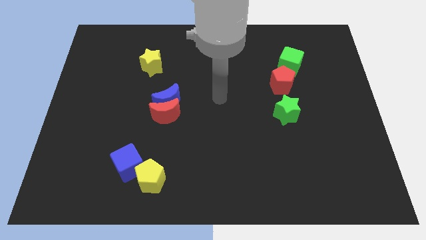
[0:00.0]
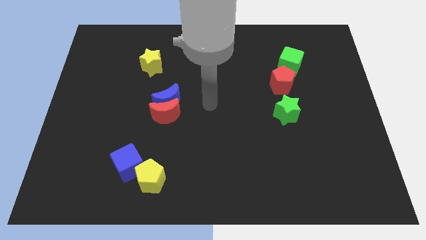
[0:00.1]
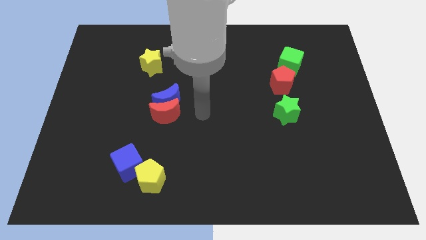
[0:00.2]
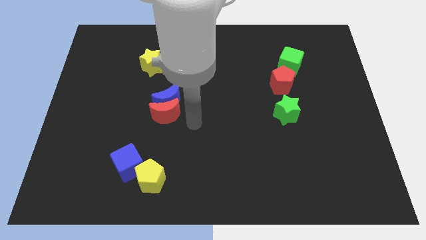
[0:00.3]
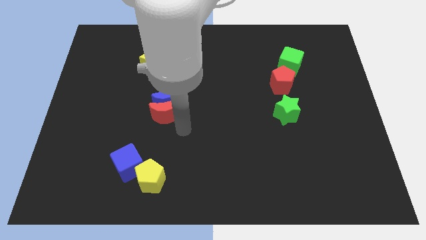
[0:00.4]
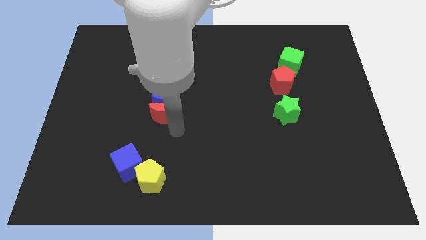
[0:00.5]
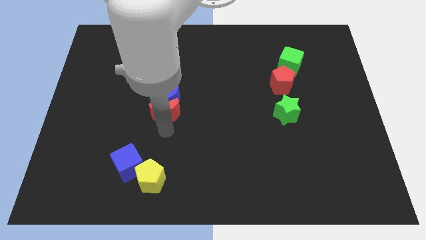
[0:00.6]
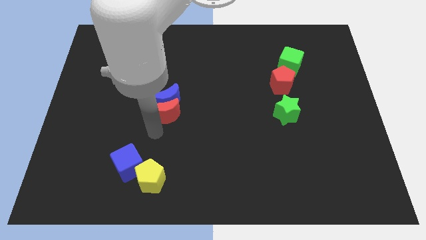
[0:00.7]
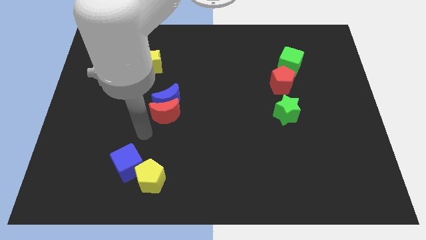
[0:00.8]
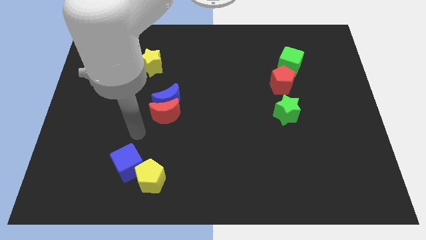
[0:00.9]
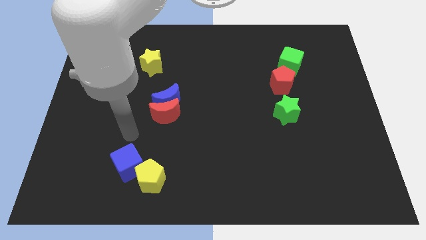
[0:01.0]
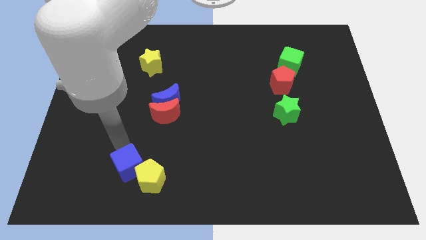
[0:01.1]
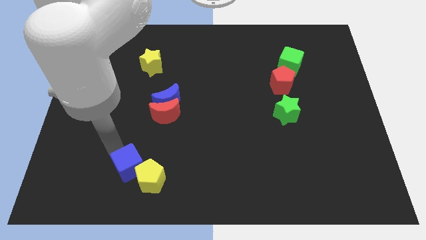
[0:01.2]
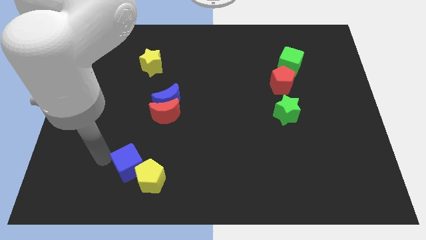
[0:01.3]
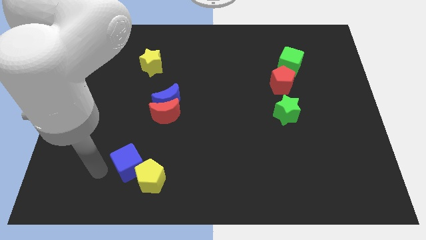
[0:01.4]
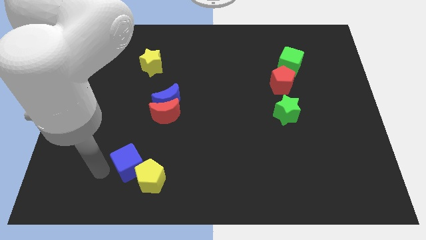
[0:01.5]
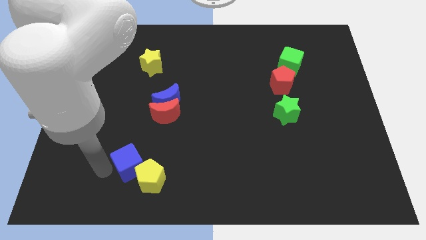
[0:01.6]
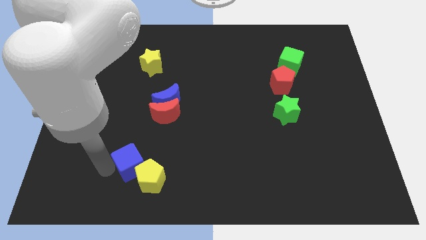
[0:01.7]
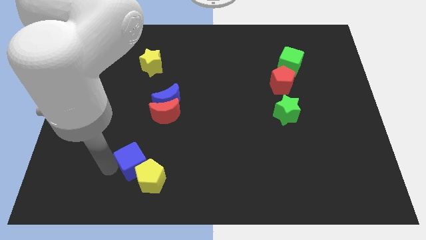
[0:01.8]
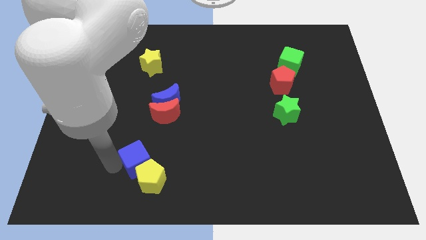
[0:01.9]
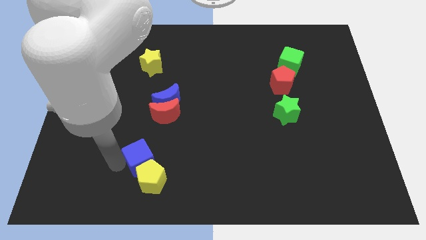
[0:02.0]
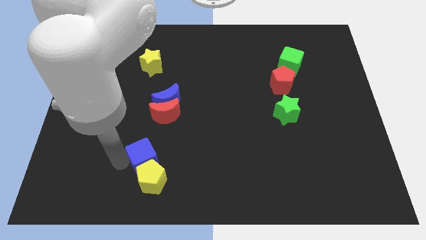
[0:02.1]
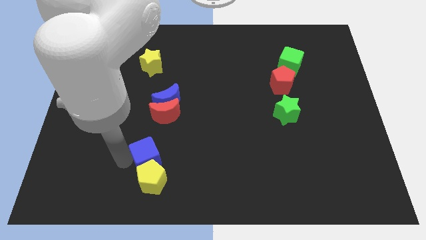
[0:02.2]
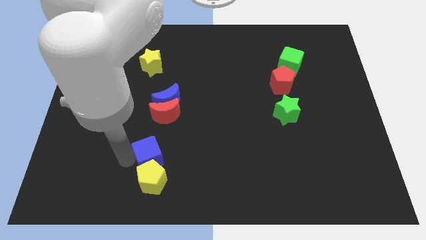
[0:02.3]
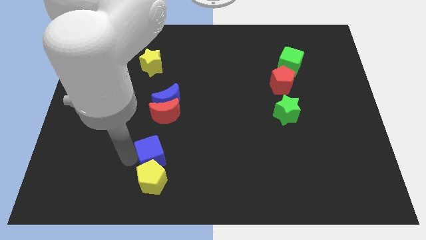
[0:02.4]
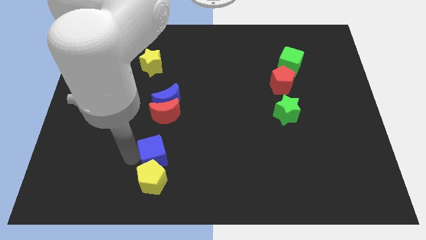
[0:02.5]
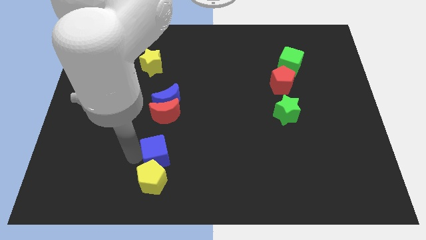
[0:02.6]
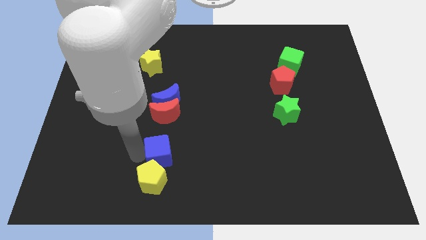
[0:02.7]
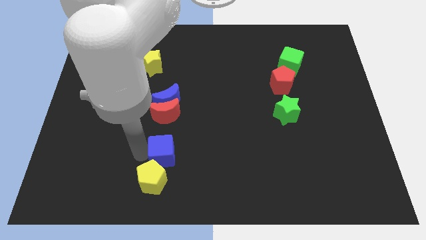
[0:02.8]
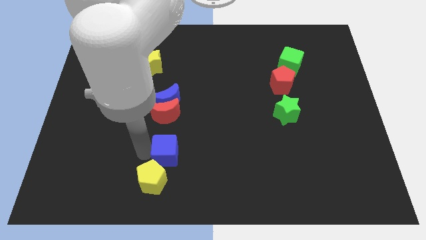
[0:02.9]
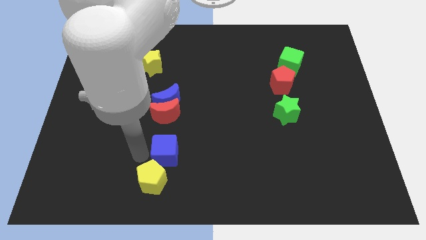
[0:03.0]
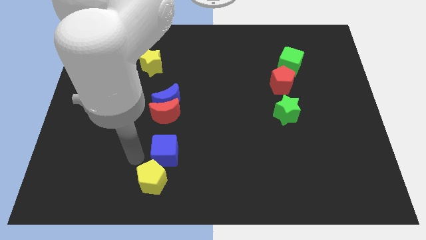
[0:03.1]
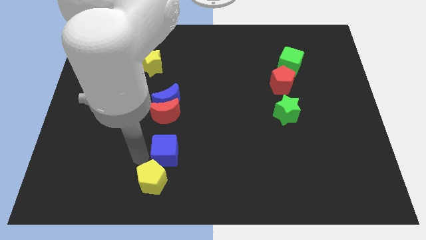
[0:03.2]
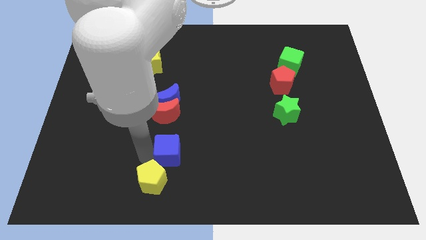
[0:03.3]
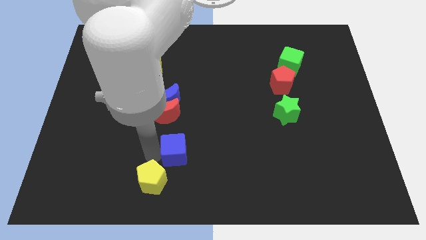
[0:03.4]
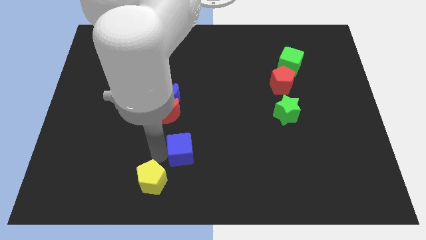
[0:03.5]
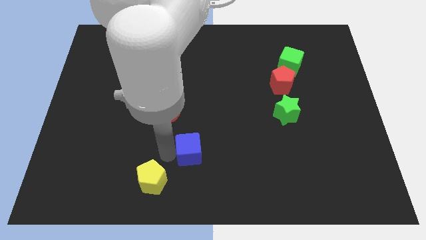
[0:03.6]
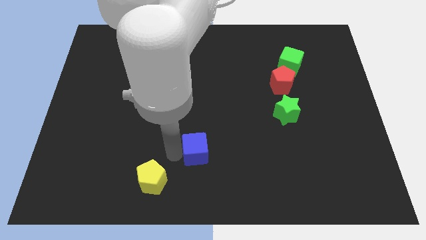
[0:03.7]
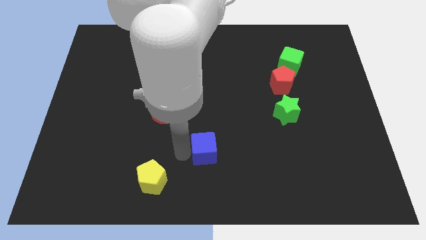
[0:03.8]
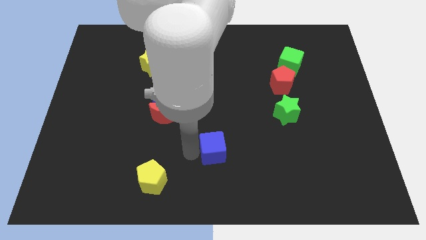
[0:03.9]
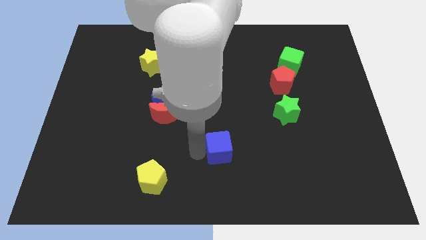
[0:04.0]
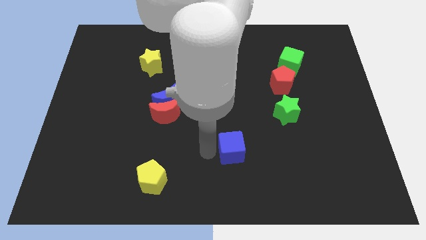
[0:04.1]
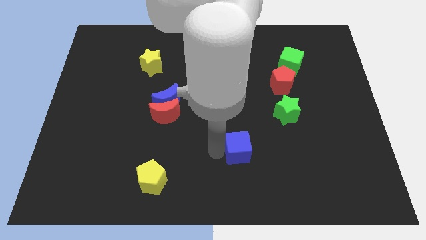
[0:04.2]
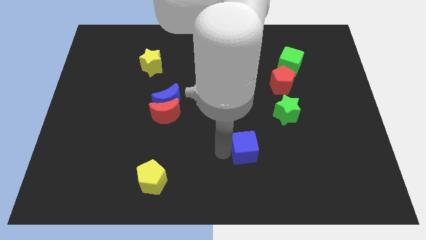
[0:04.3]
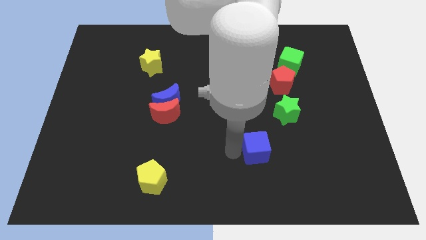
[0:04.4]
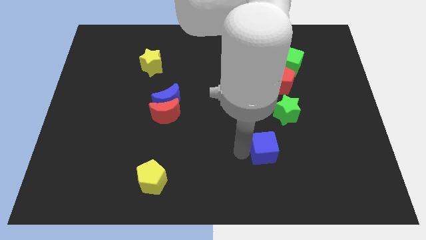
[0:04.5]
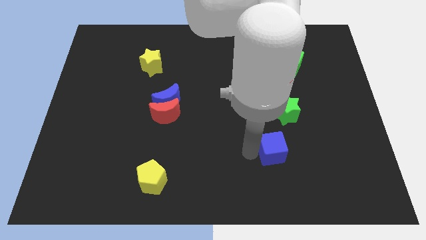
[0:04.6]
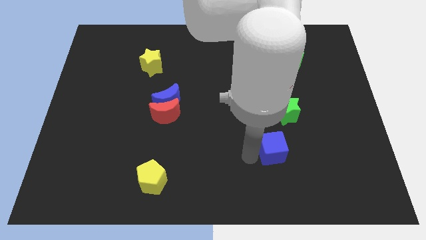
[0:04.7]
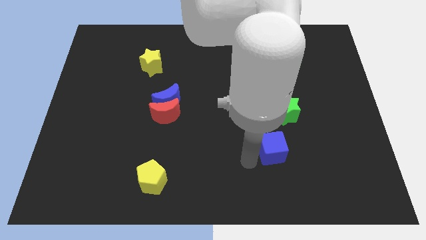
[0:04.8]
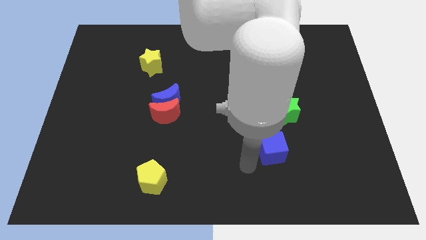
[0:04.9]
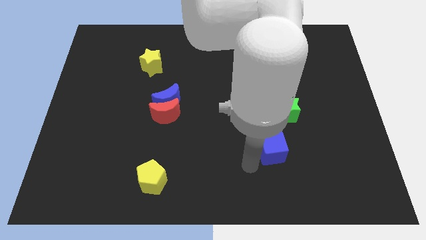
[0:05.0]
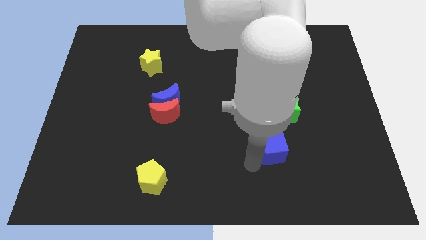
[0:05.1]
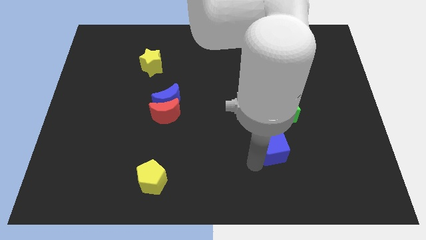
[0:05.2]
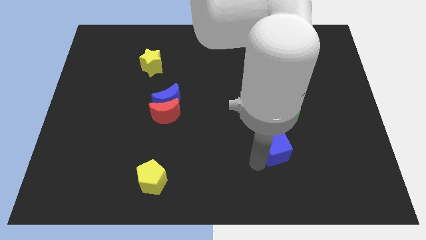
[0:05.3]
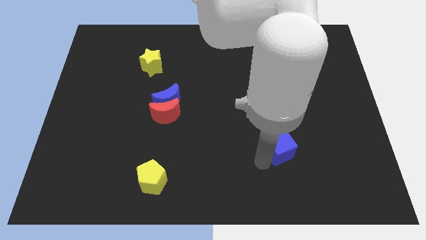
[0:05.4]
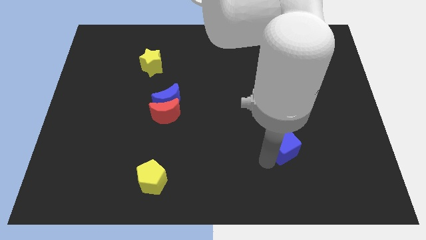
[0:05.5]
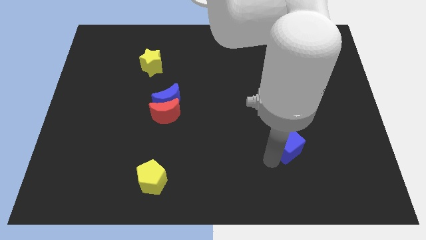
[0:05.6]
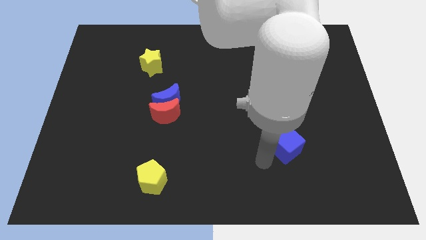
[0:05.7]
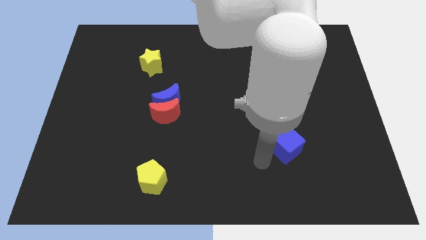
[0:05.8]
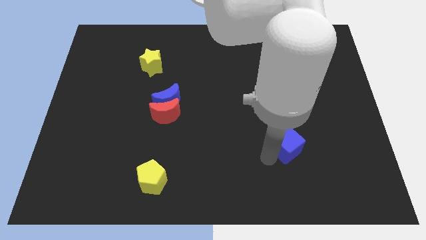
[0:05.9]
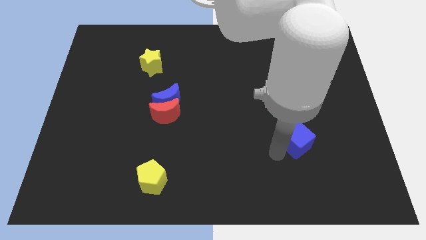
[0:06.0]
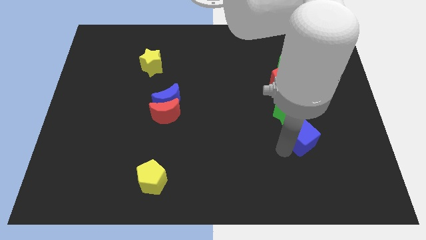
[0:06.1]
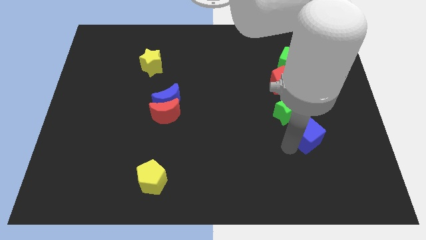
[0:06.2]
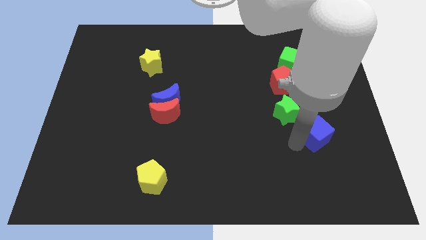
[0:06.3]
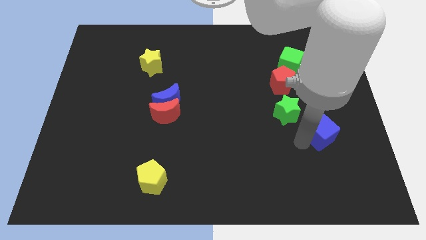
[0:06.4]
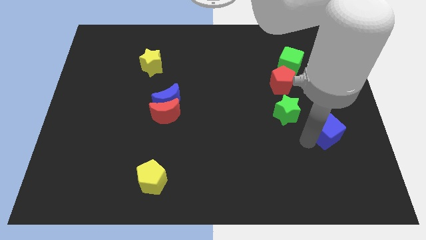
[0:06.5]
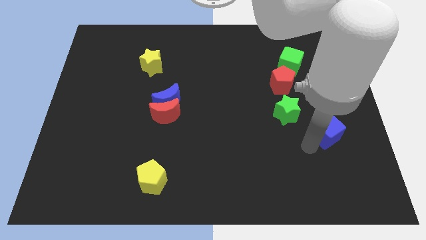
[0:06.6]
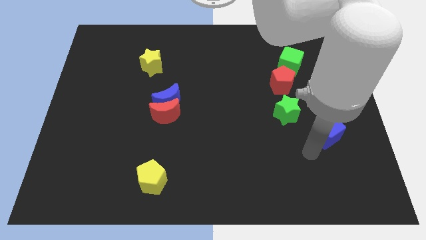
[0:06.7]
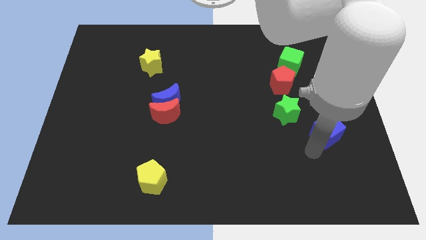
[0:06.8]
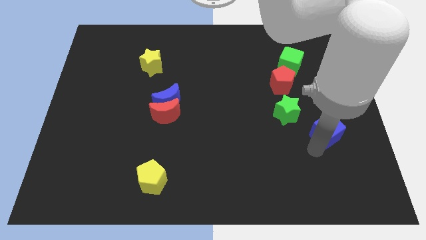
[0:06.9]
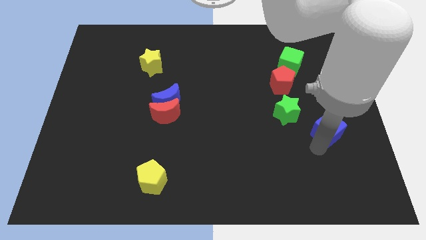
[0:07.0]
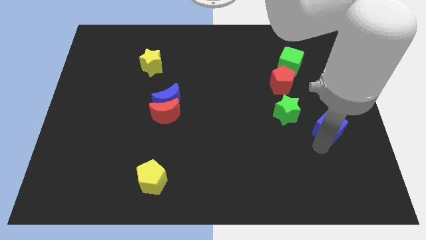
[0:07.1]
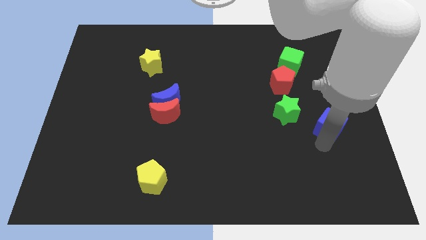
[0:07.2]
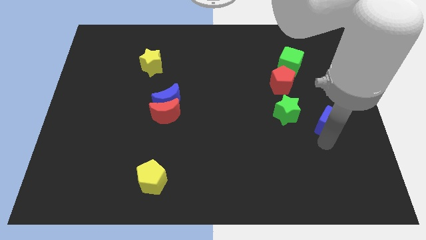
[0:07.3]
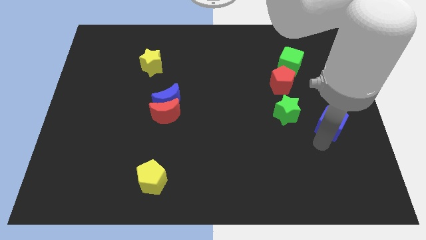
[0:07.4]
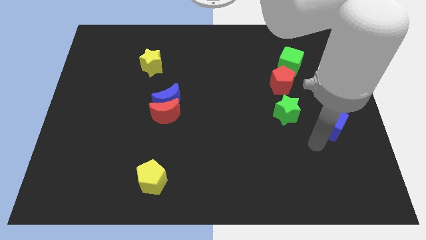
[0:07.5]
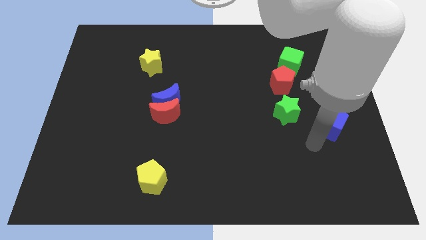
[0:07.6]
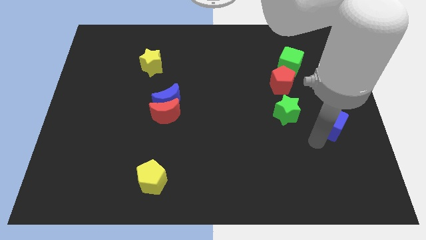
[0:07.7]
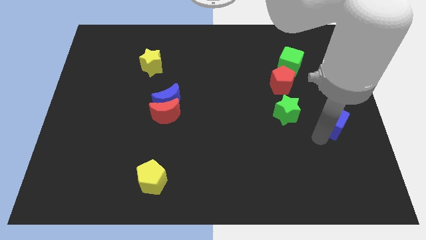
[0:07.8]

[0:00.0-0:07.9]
push the blue cube to the right side
